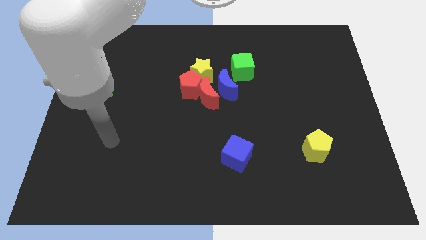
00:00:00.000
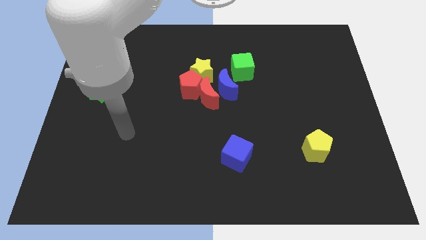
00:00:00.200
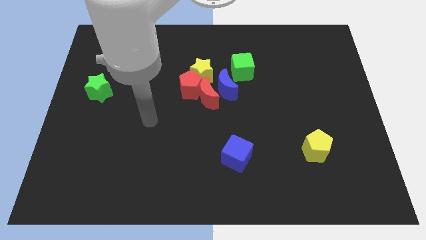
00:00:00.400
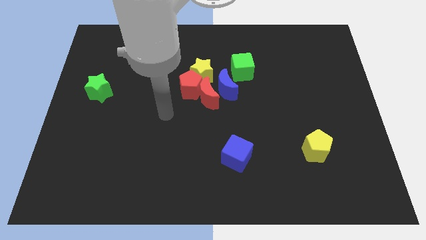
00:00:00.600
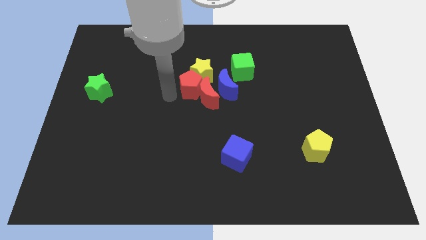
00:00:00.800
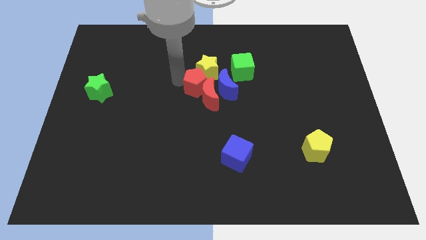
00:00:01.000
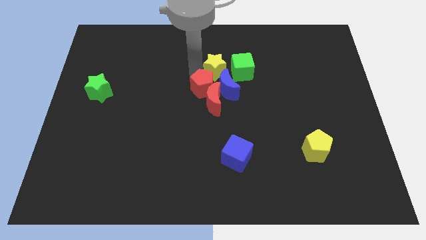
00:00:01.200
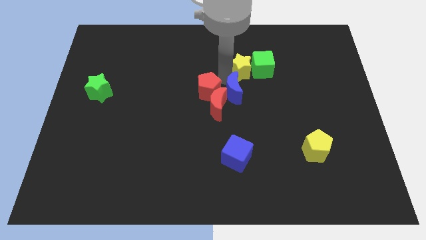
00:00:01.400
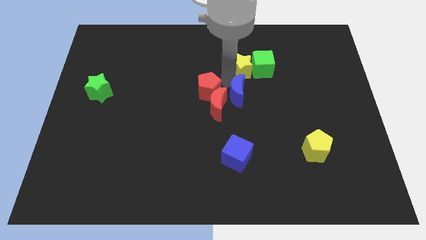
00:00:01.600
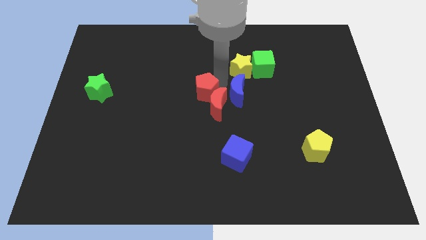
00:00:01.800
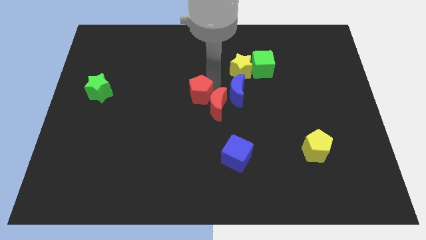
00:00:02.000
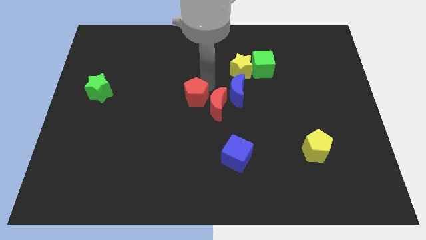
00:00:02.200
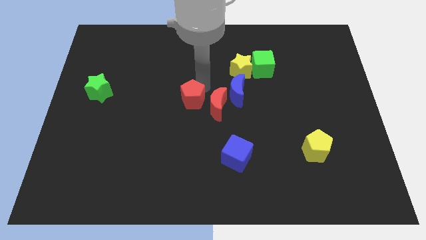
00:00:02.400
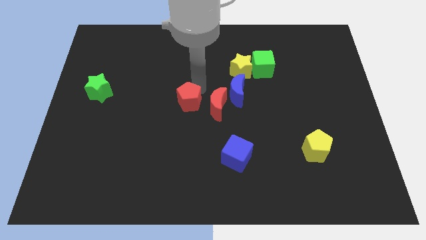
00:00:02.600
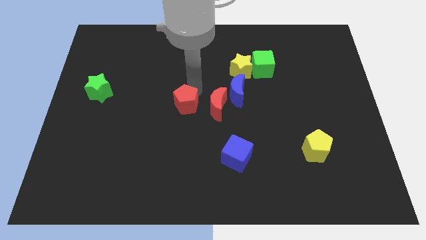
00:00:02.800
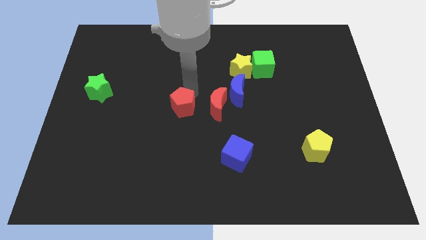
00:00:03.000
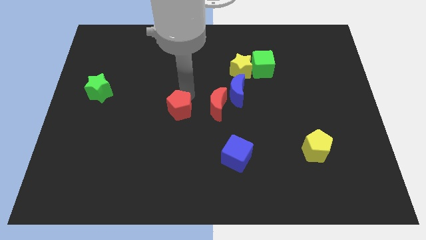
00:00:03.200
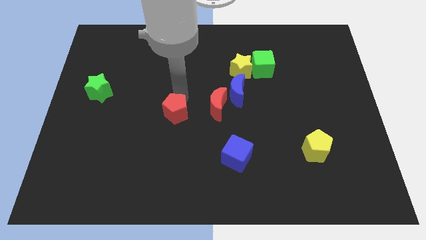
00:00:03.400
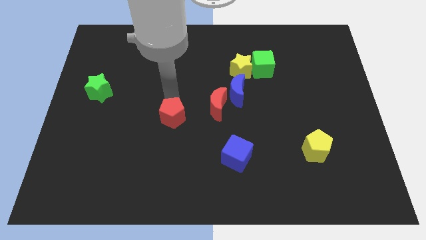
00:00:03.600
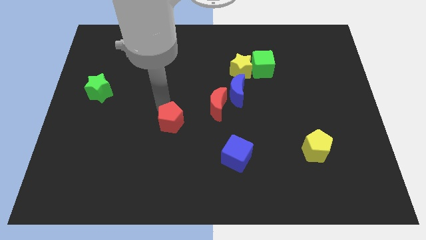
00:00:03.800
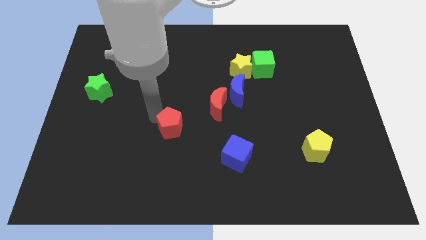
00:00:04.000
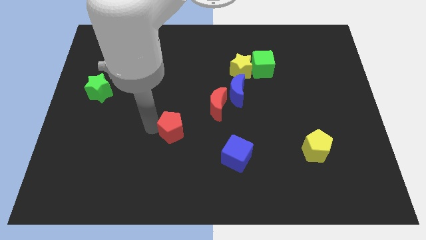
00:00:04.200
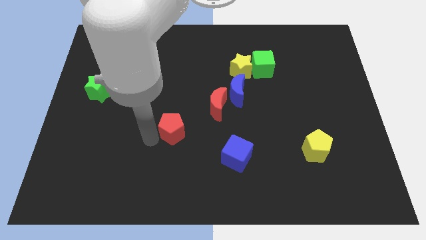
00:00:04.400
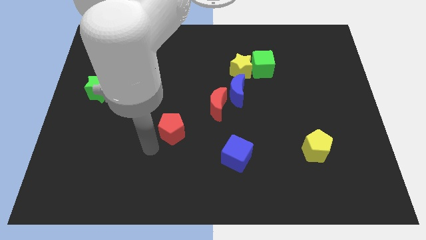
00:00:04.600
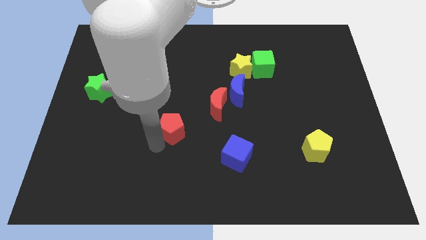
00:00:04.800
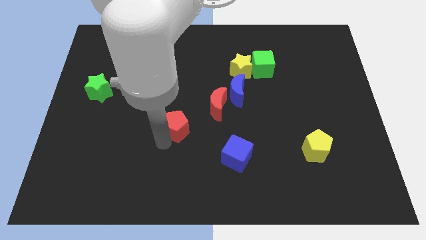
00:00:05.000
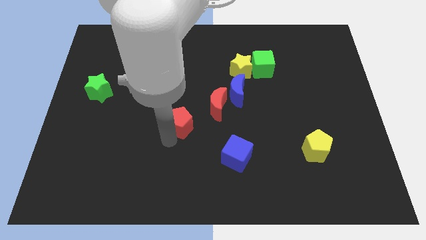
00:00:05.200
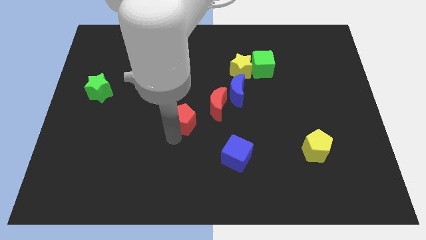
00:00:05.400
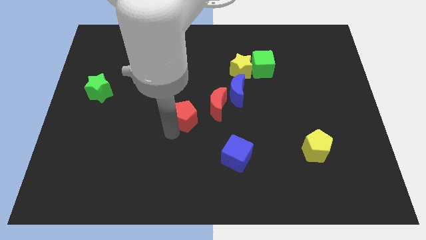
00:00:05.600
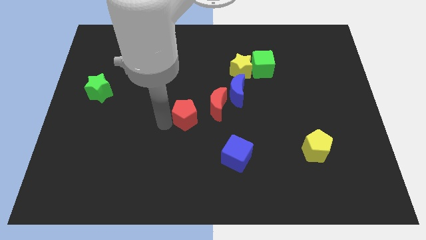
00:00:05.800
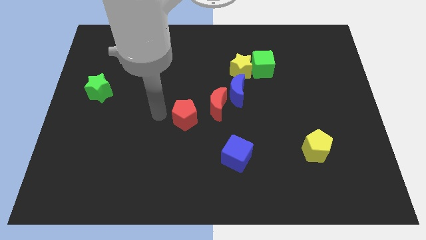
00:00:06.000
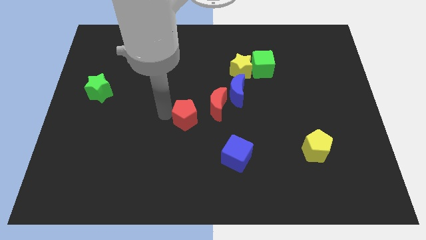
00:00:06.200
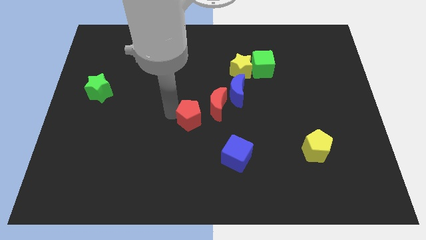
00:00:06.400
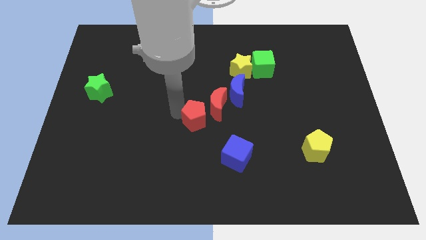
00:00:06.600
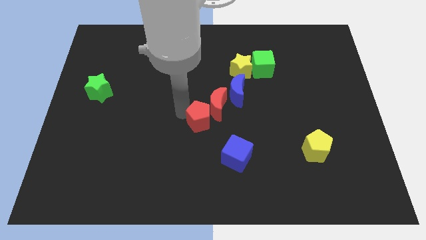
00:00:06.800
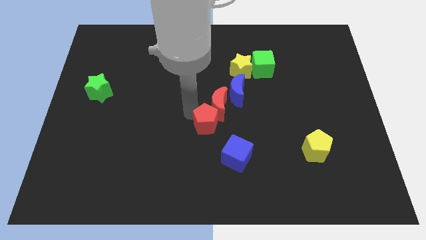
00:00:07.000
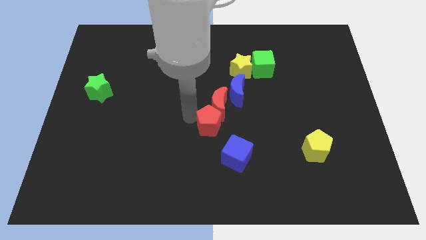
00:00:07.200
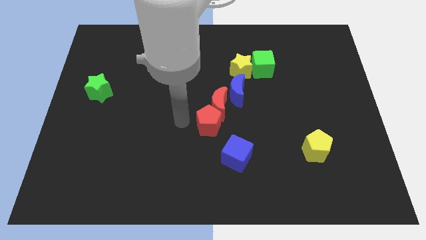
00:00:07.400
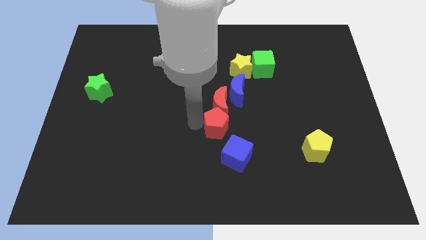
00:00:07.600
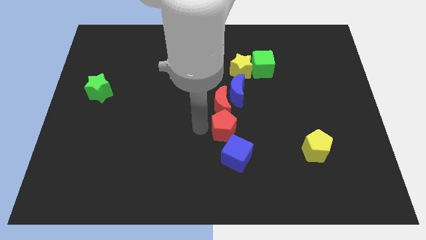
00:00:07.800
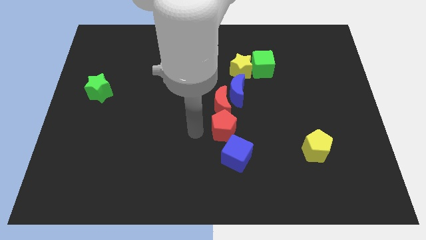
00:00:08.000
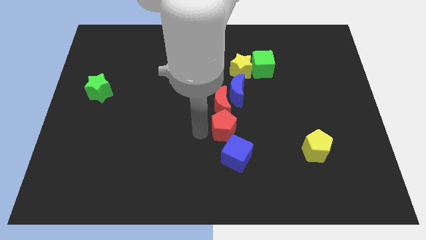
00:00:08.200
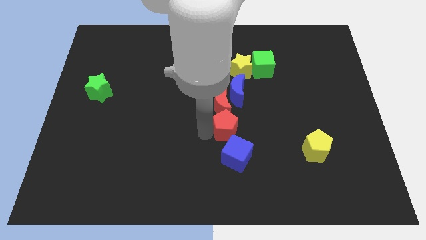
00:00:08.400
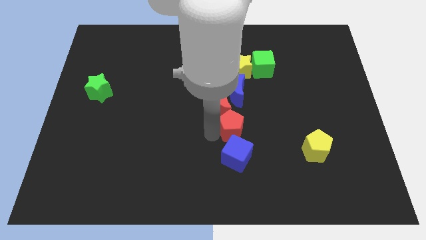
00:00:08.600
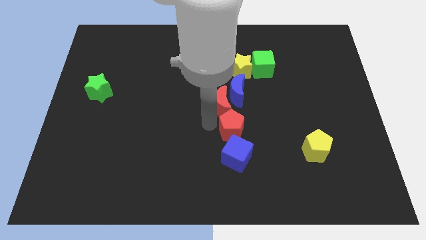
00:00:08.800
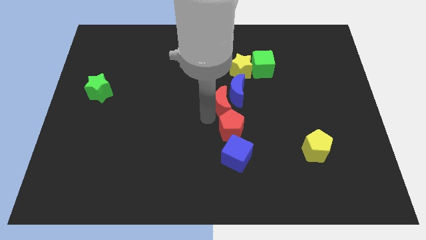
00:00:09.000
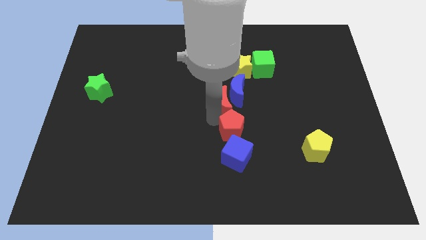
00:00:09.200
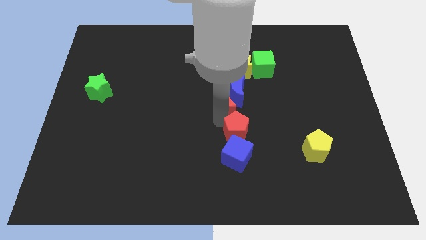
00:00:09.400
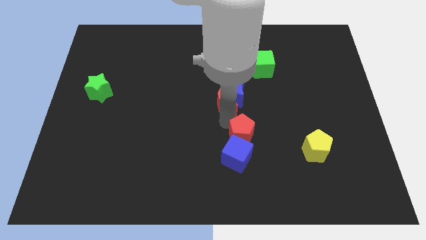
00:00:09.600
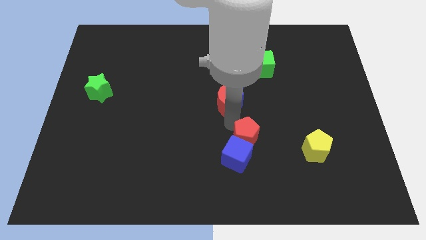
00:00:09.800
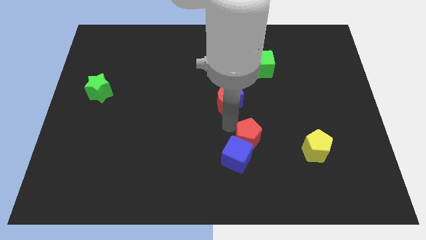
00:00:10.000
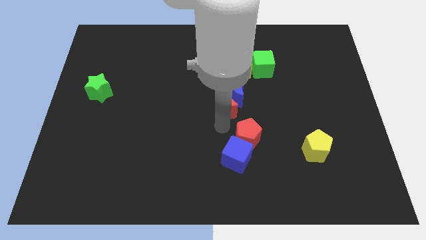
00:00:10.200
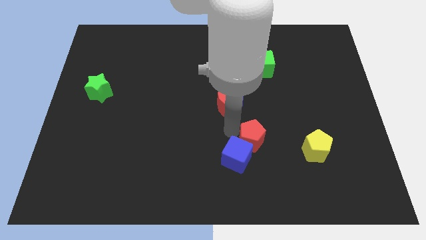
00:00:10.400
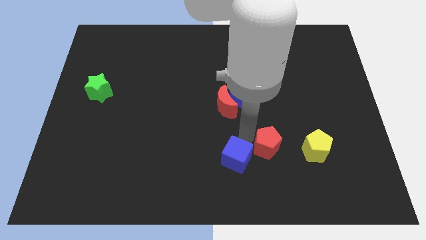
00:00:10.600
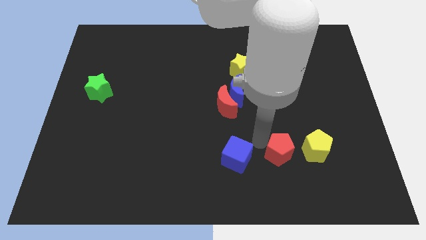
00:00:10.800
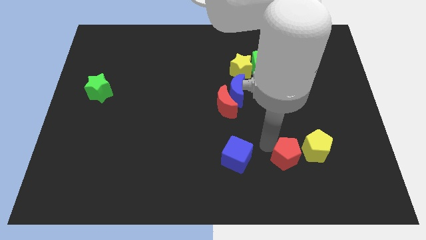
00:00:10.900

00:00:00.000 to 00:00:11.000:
move the red pentagon to the bottom left side of the yellow pentagon

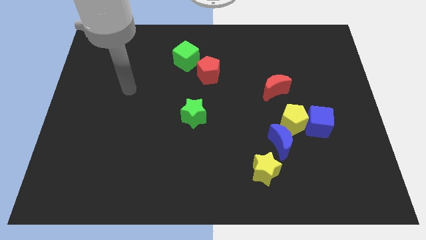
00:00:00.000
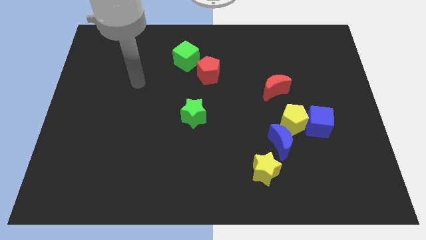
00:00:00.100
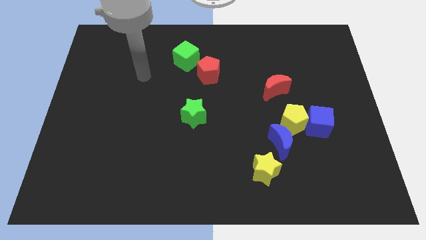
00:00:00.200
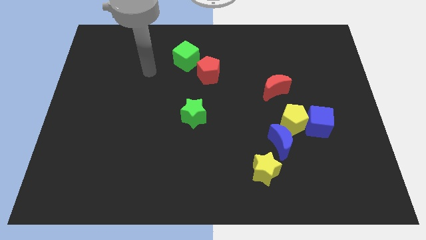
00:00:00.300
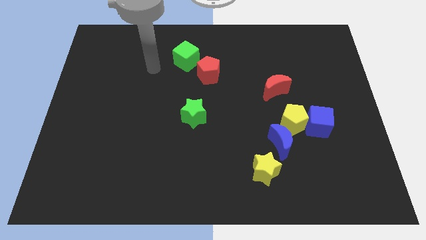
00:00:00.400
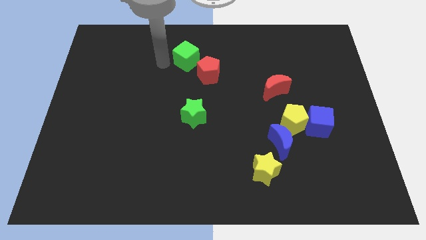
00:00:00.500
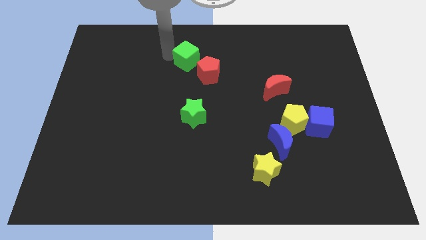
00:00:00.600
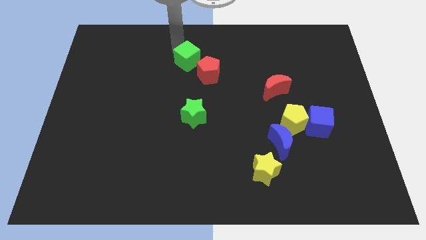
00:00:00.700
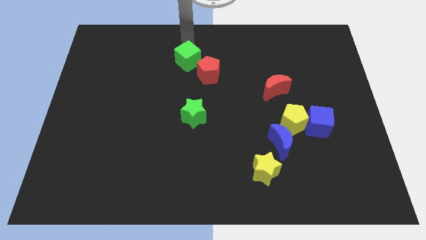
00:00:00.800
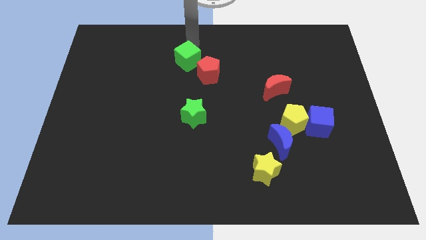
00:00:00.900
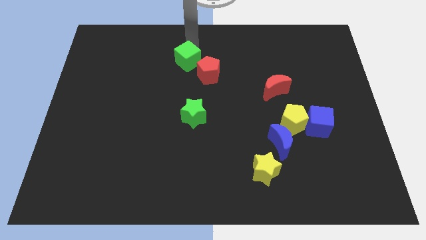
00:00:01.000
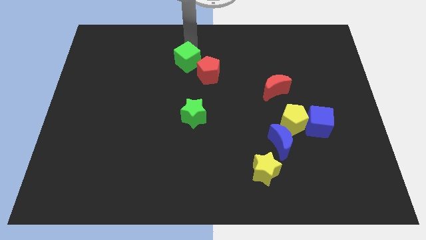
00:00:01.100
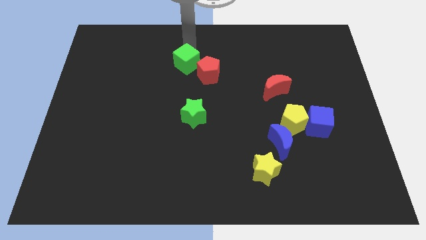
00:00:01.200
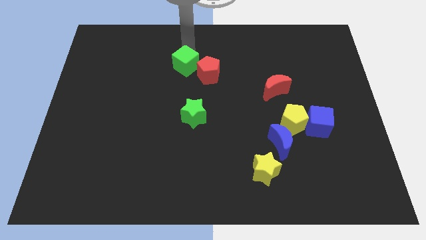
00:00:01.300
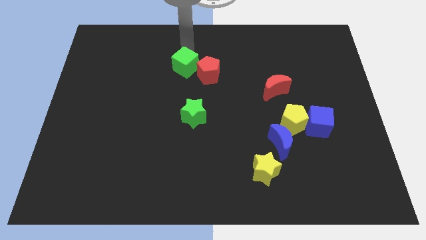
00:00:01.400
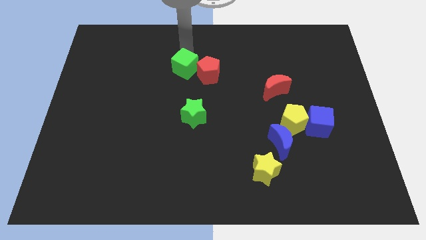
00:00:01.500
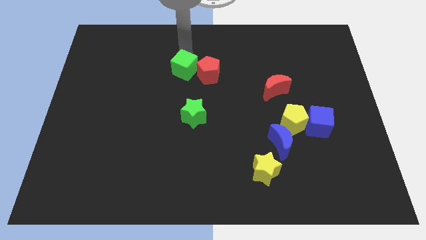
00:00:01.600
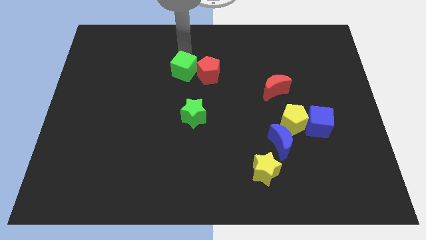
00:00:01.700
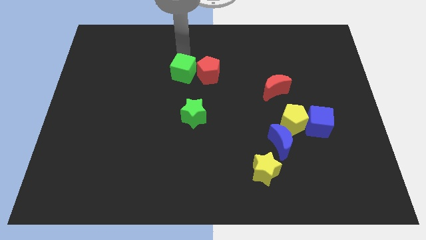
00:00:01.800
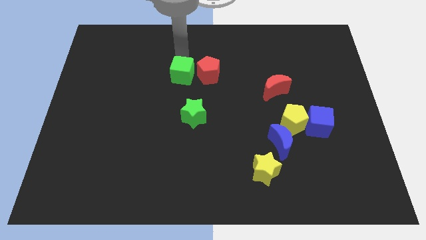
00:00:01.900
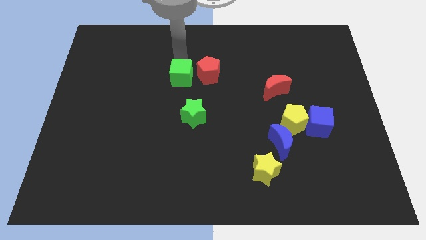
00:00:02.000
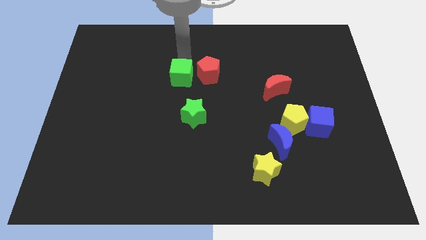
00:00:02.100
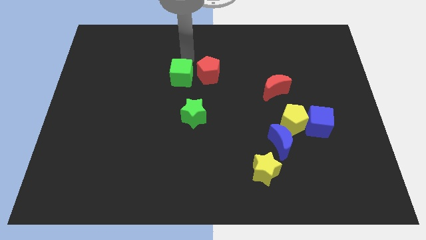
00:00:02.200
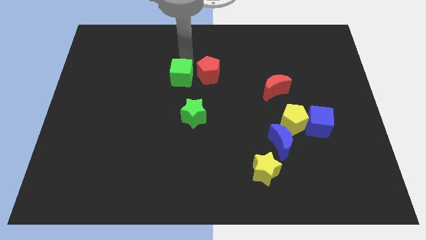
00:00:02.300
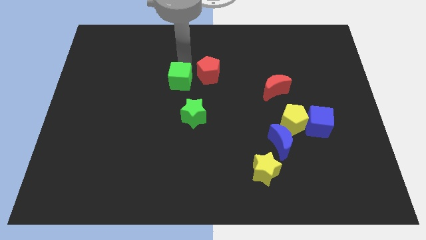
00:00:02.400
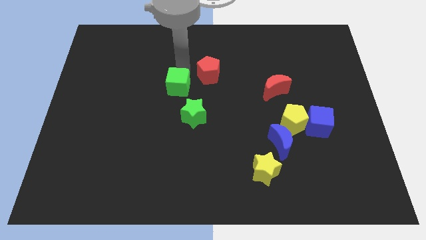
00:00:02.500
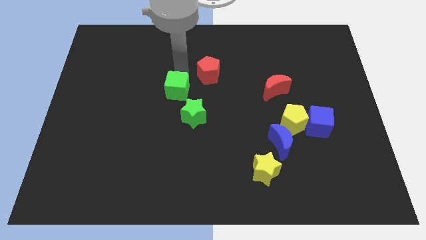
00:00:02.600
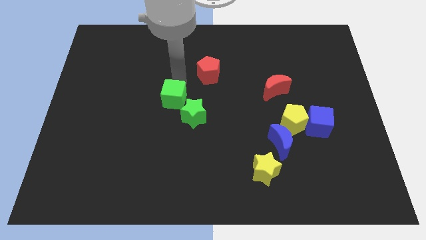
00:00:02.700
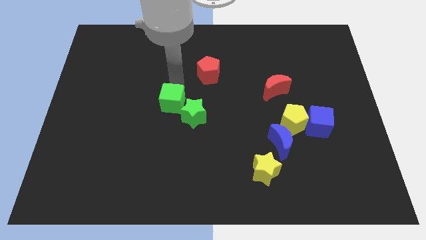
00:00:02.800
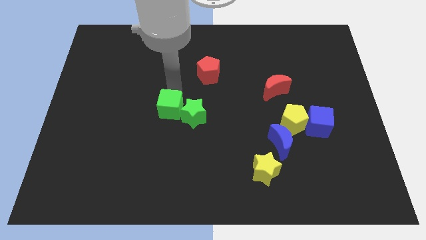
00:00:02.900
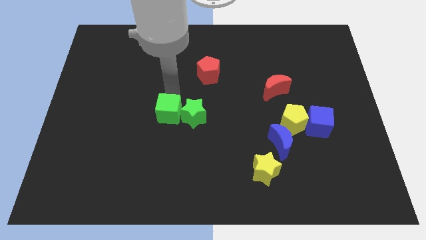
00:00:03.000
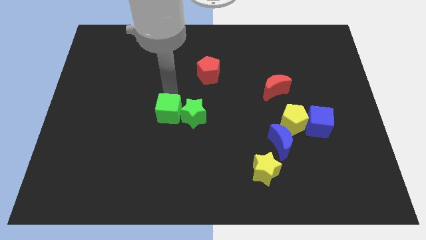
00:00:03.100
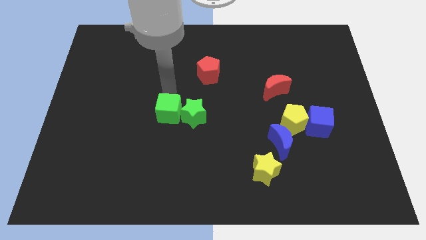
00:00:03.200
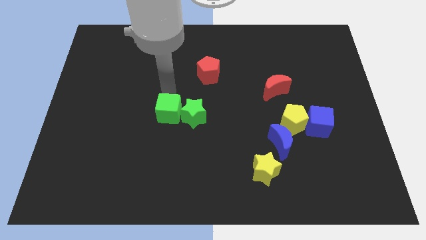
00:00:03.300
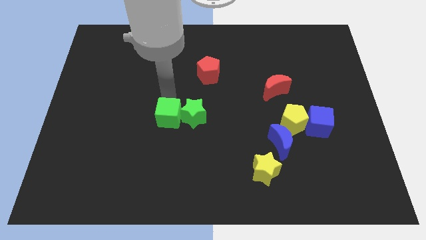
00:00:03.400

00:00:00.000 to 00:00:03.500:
push the green cube to the bottom left side of the green star
